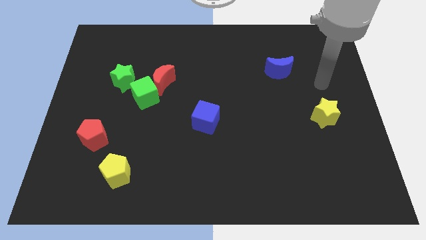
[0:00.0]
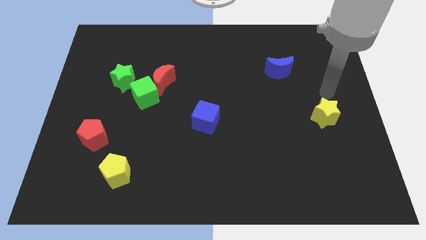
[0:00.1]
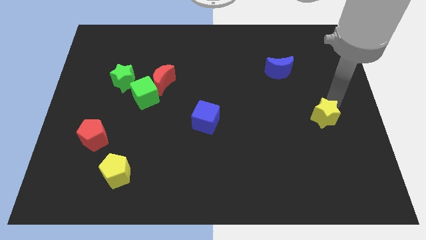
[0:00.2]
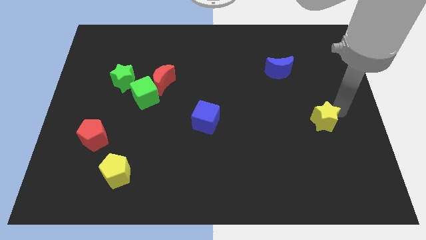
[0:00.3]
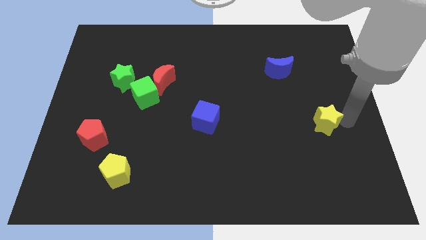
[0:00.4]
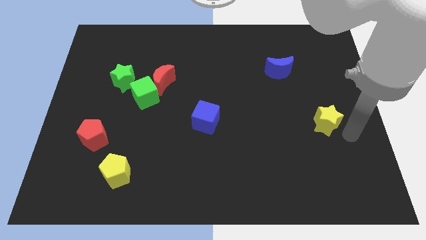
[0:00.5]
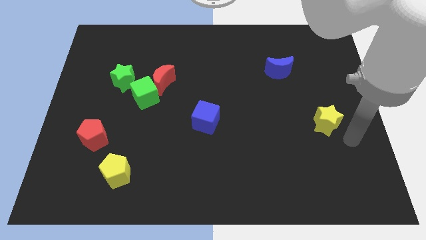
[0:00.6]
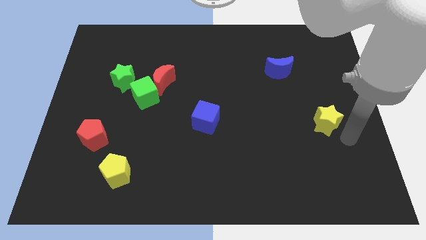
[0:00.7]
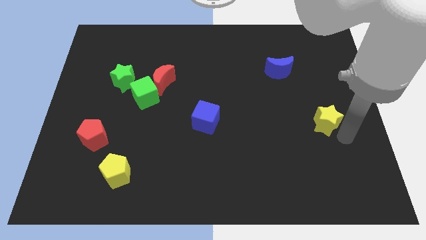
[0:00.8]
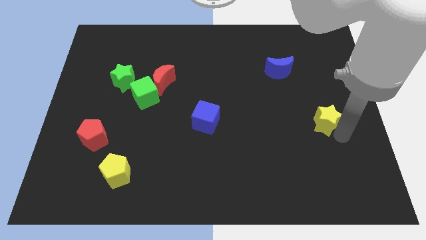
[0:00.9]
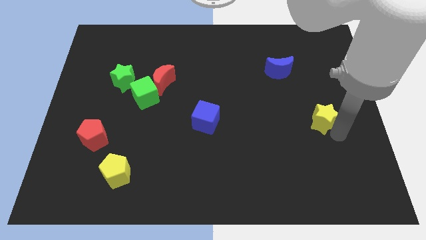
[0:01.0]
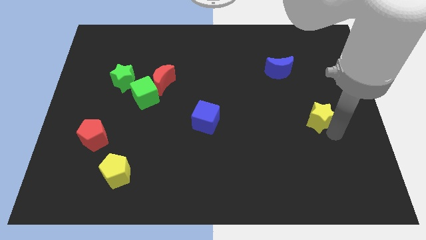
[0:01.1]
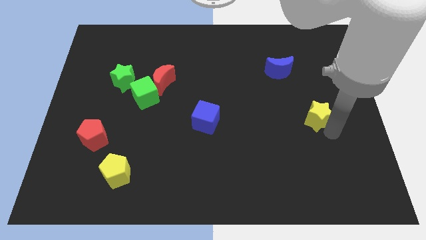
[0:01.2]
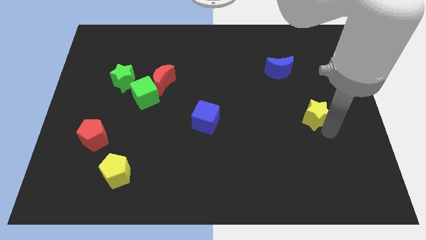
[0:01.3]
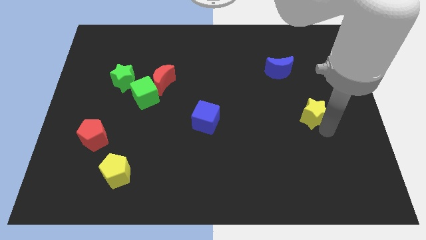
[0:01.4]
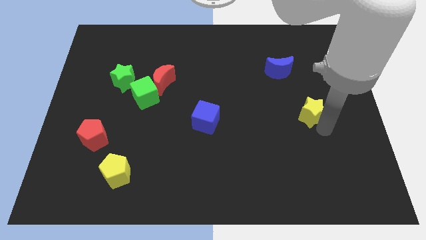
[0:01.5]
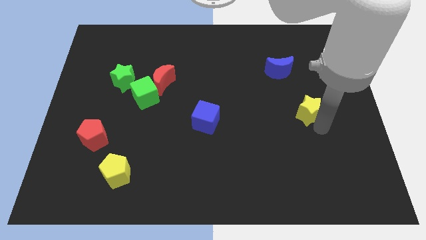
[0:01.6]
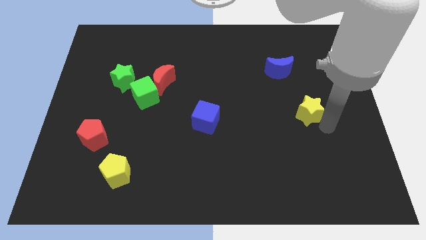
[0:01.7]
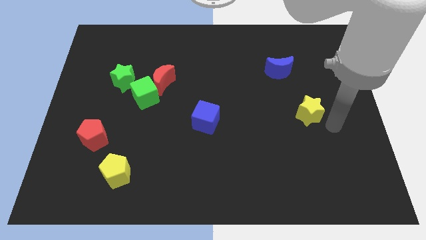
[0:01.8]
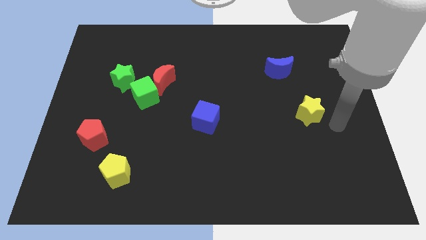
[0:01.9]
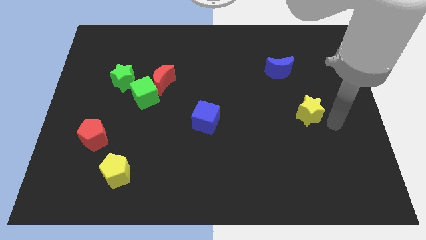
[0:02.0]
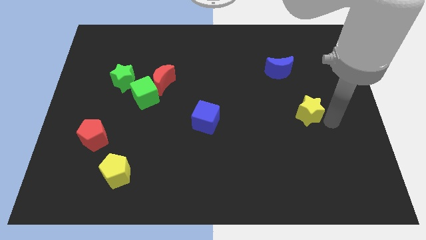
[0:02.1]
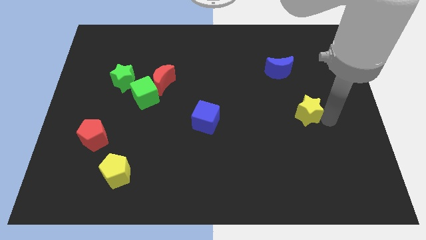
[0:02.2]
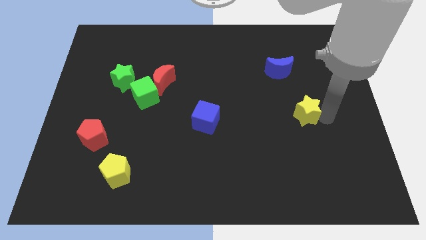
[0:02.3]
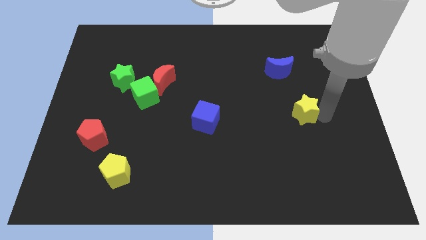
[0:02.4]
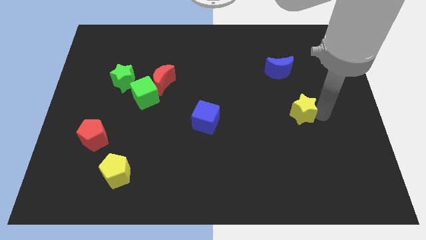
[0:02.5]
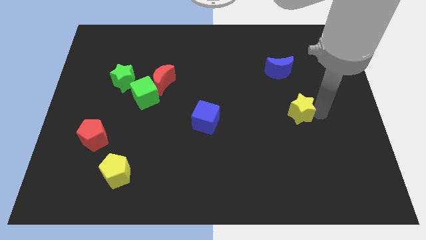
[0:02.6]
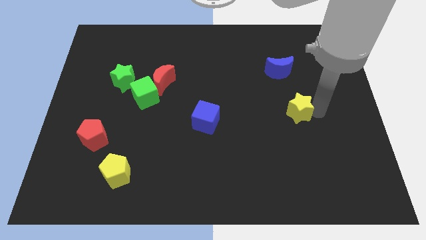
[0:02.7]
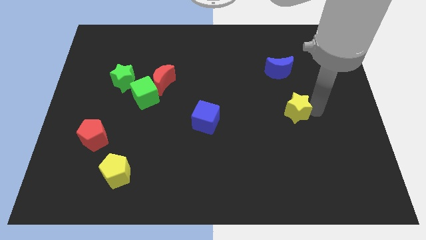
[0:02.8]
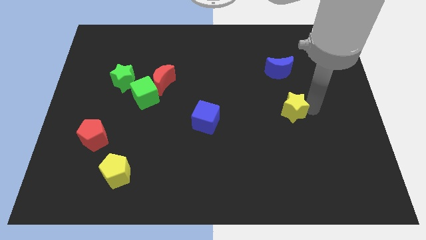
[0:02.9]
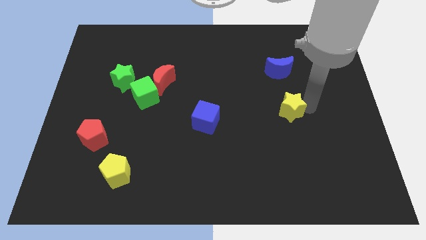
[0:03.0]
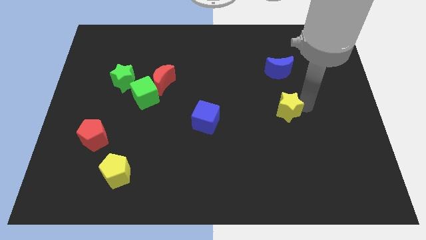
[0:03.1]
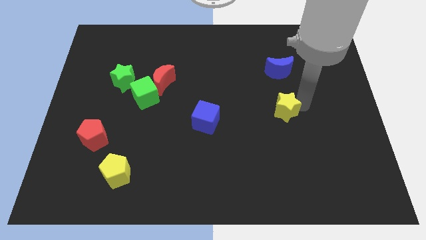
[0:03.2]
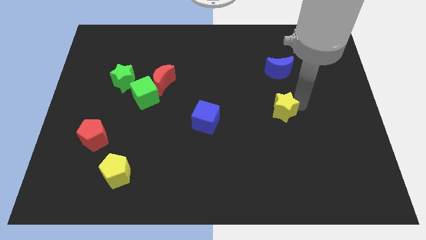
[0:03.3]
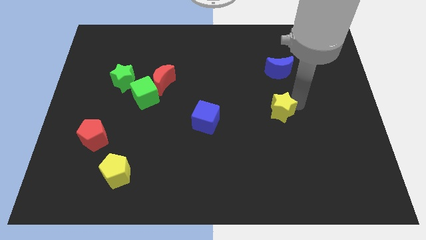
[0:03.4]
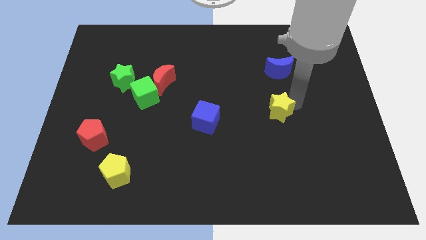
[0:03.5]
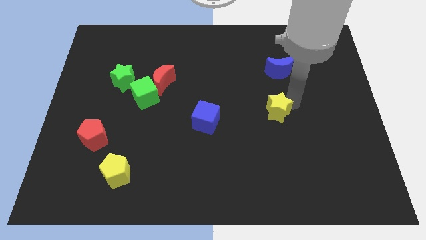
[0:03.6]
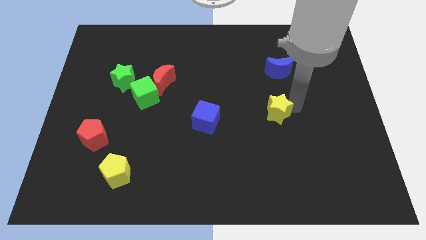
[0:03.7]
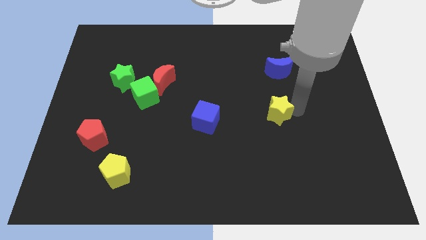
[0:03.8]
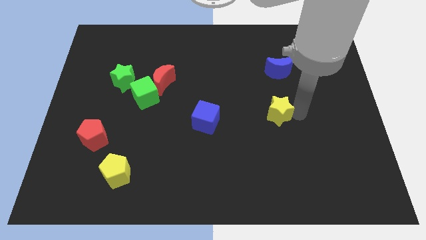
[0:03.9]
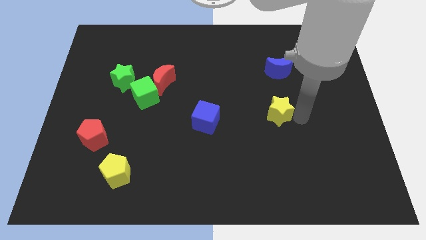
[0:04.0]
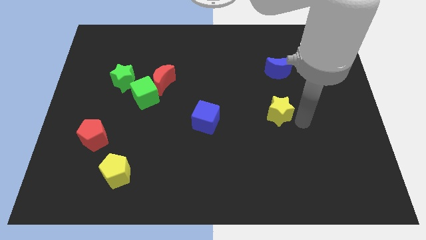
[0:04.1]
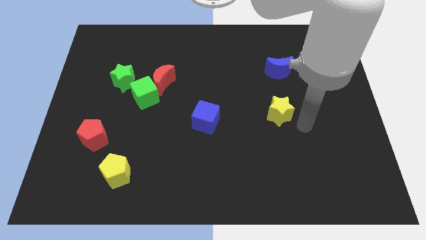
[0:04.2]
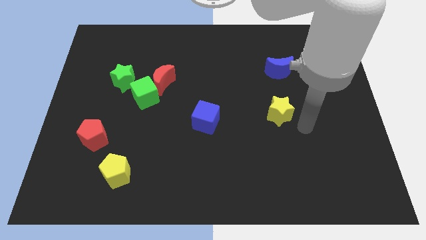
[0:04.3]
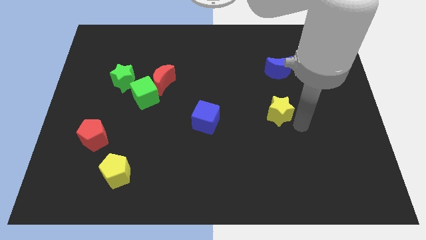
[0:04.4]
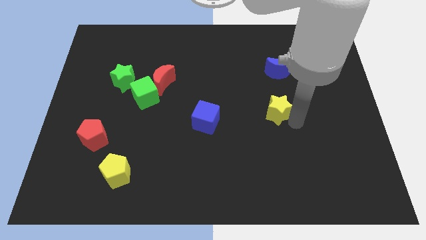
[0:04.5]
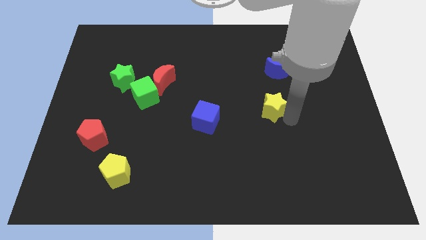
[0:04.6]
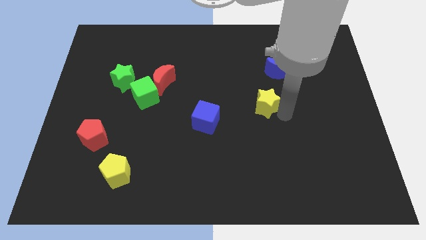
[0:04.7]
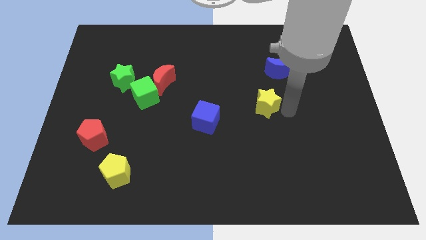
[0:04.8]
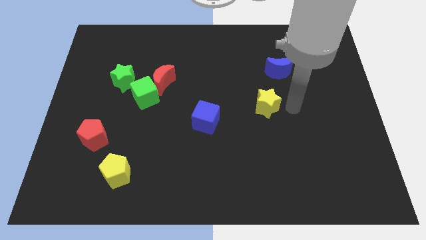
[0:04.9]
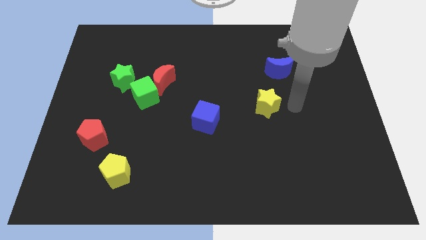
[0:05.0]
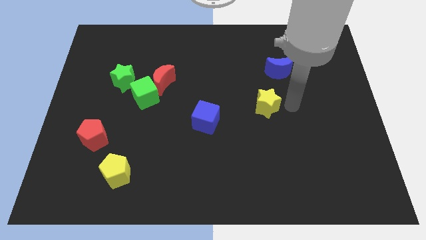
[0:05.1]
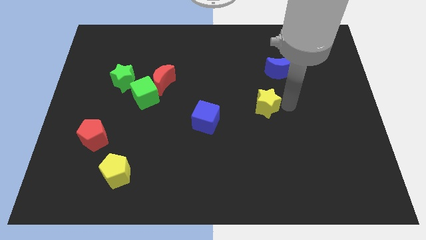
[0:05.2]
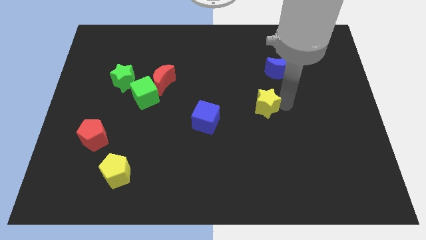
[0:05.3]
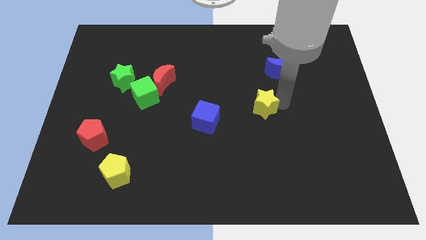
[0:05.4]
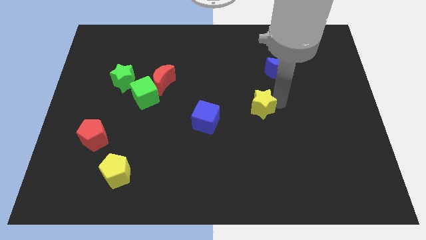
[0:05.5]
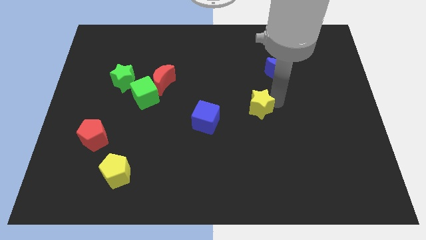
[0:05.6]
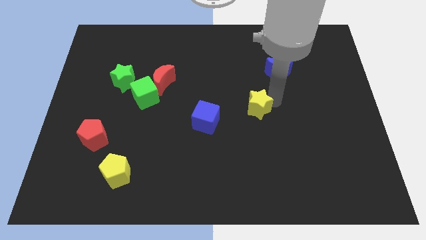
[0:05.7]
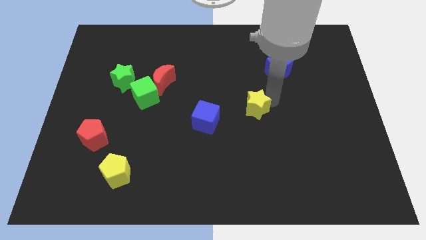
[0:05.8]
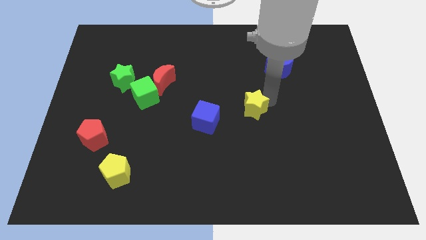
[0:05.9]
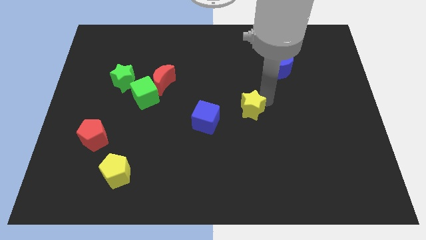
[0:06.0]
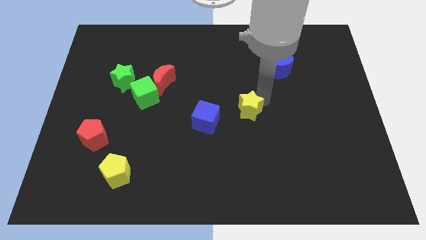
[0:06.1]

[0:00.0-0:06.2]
slide the yellow star to the top right of the blue cube

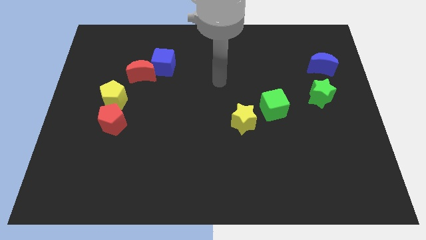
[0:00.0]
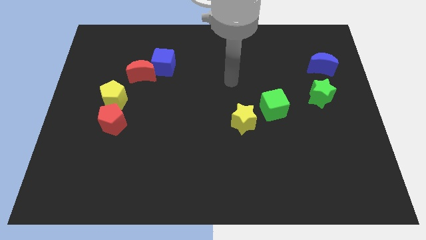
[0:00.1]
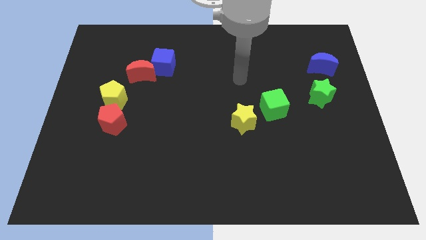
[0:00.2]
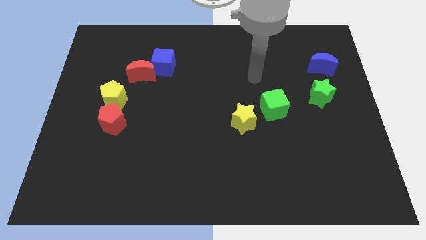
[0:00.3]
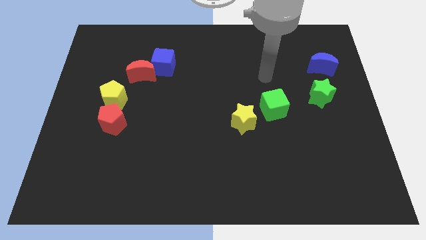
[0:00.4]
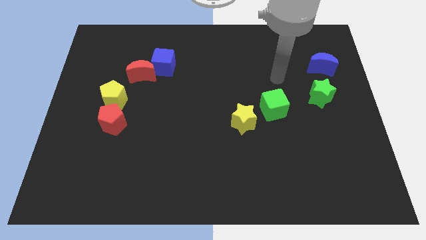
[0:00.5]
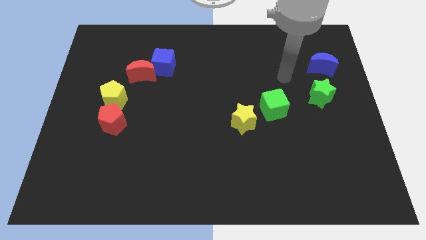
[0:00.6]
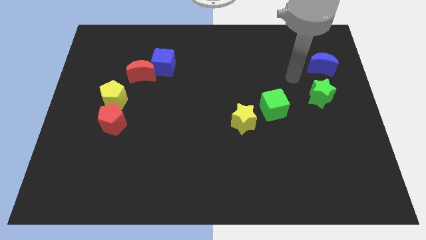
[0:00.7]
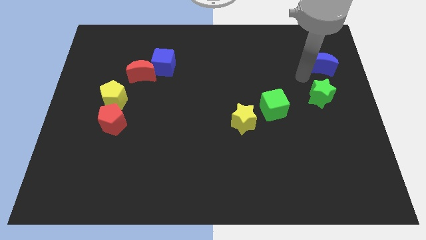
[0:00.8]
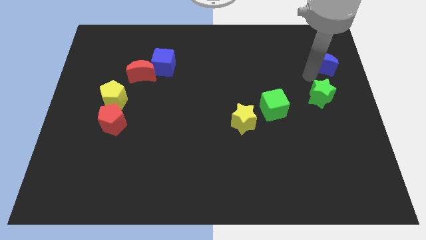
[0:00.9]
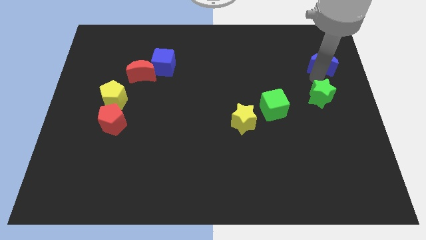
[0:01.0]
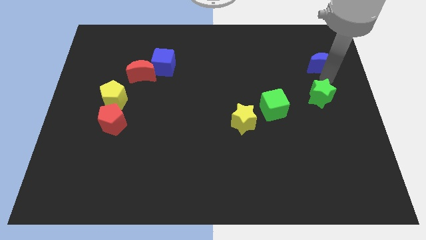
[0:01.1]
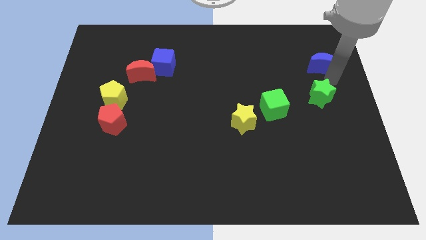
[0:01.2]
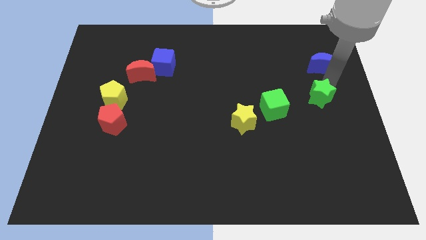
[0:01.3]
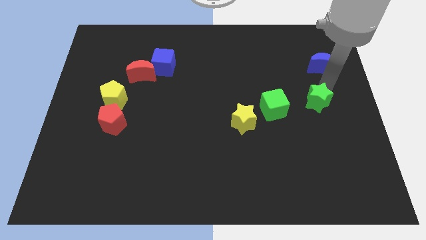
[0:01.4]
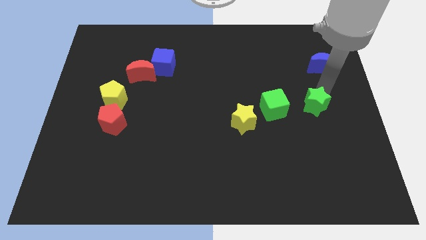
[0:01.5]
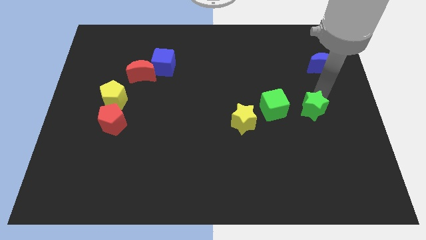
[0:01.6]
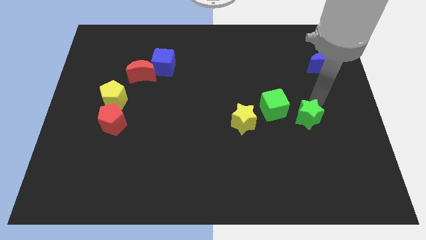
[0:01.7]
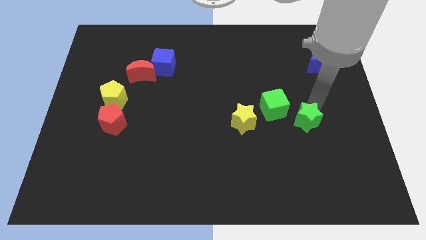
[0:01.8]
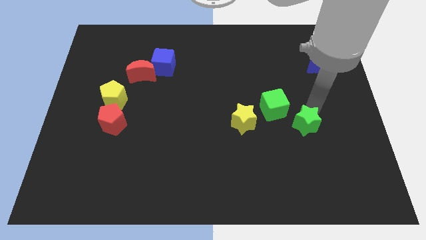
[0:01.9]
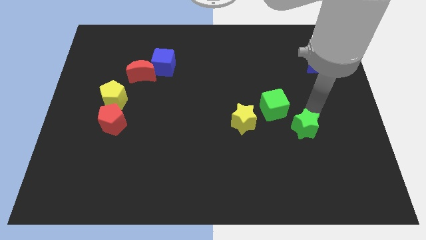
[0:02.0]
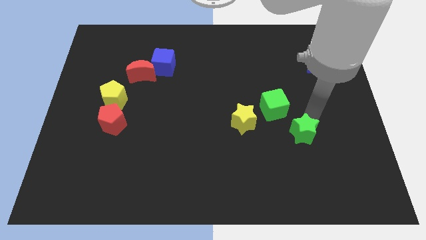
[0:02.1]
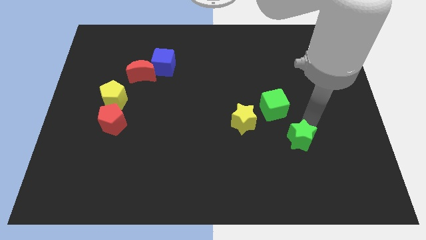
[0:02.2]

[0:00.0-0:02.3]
move the green star to the bottom side of the green cube
